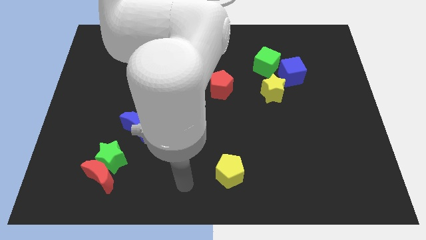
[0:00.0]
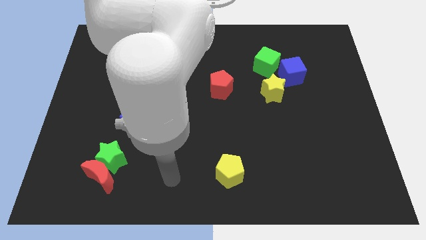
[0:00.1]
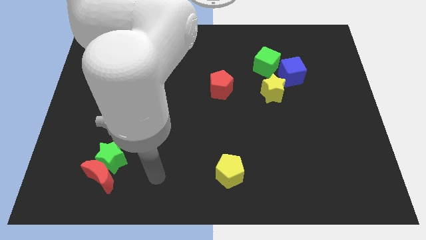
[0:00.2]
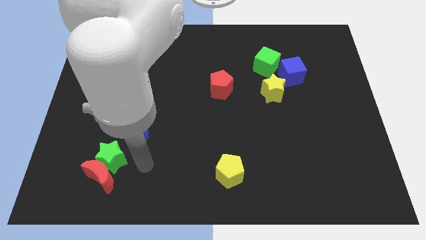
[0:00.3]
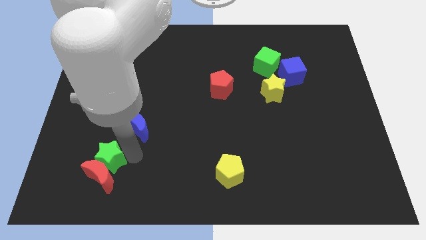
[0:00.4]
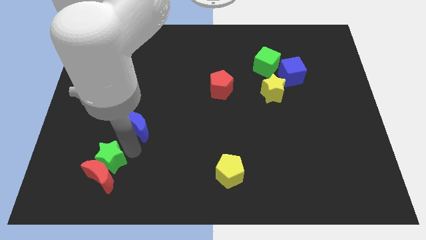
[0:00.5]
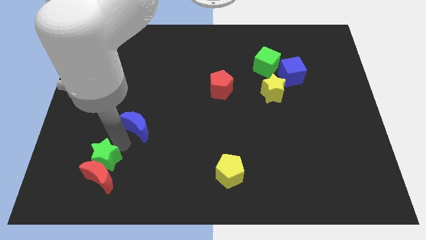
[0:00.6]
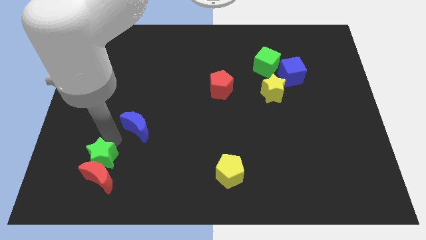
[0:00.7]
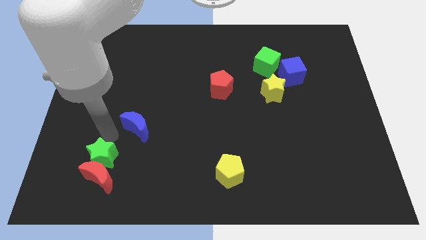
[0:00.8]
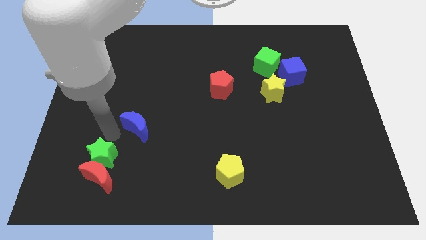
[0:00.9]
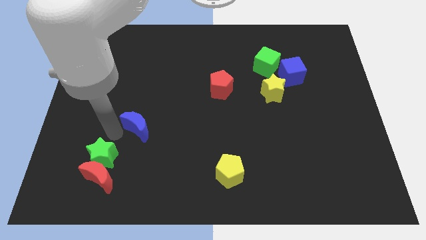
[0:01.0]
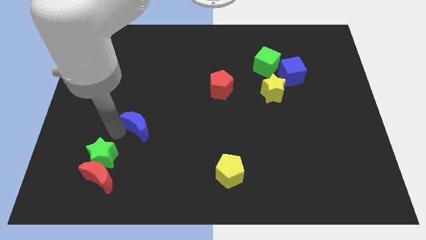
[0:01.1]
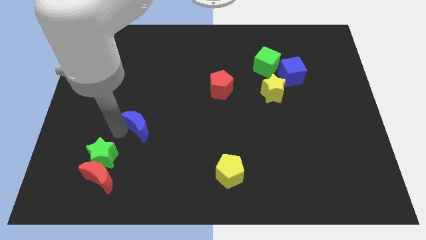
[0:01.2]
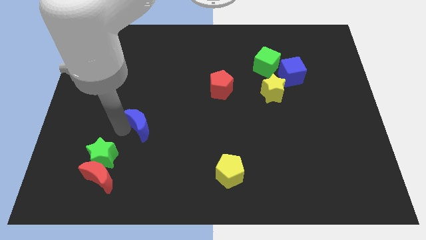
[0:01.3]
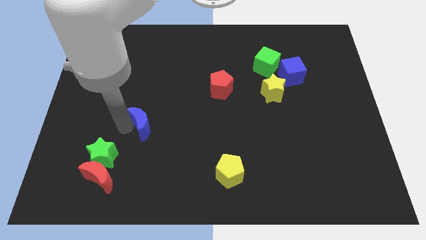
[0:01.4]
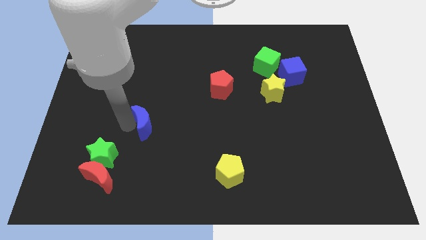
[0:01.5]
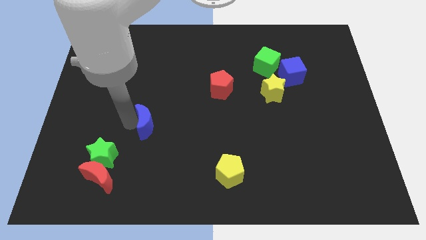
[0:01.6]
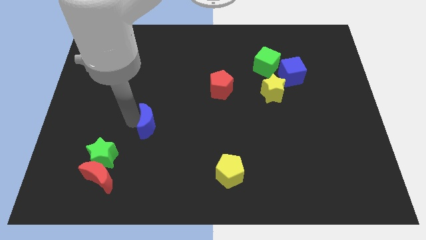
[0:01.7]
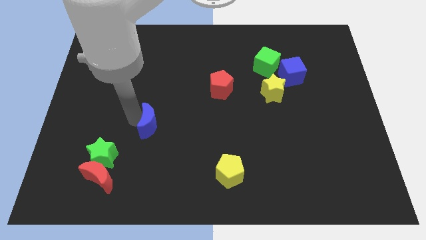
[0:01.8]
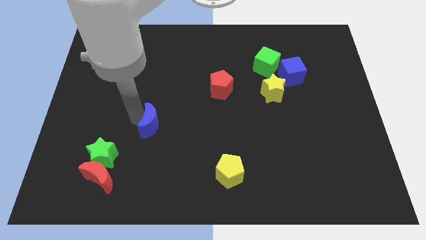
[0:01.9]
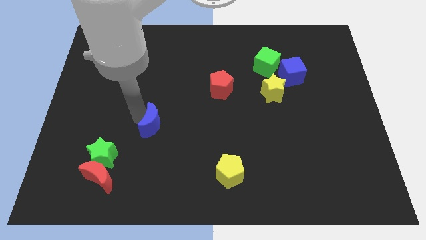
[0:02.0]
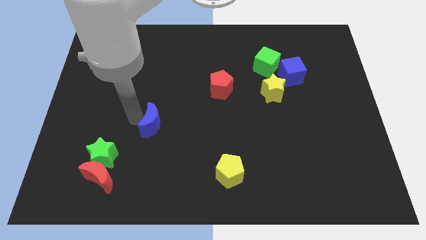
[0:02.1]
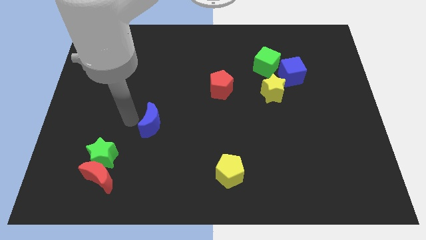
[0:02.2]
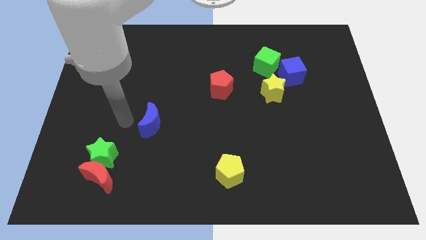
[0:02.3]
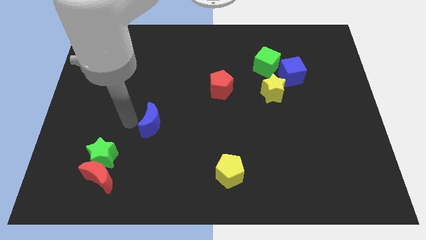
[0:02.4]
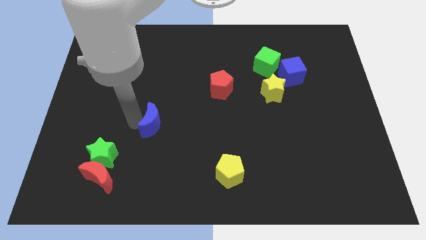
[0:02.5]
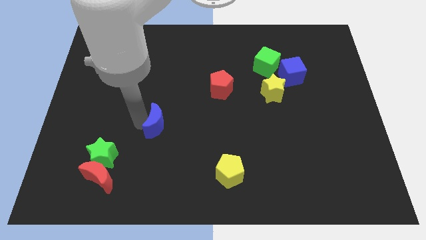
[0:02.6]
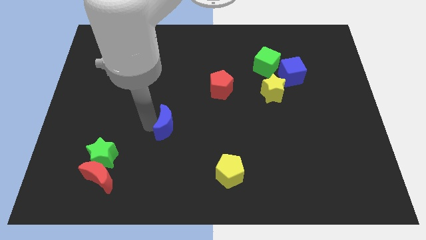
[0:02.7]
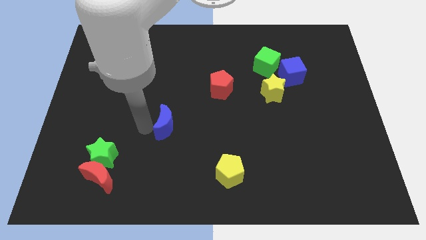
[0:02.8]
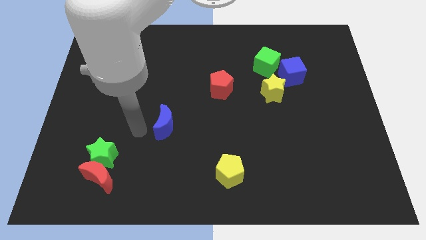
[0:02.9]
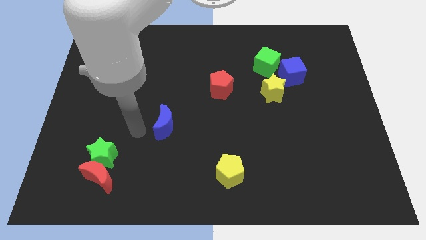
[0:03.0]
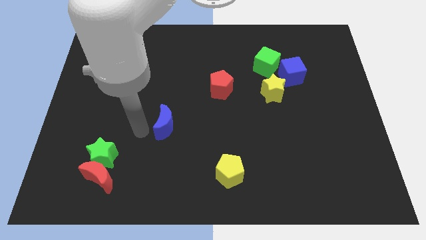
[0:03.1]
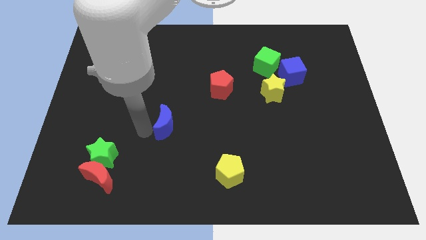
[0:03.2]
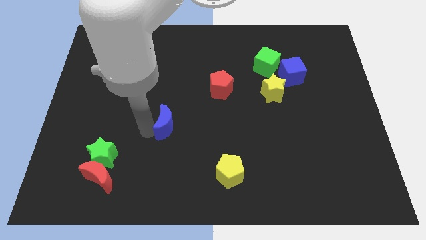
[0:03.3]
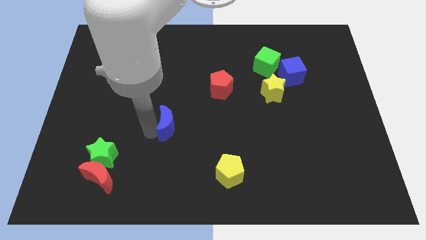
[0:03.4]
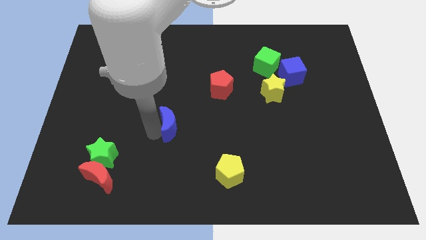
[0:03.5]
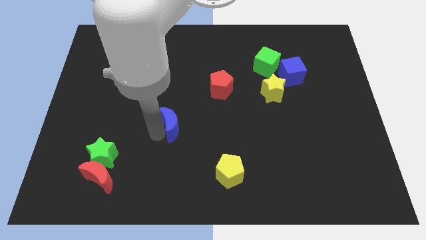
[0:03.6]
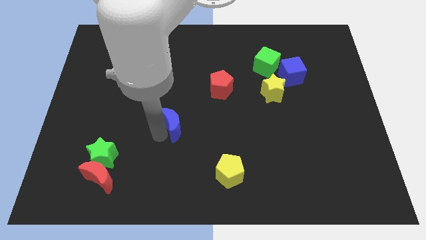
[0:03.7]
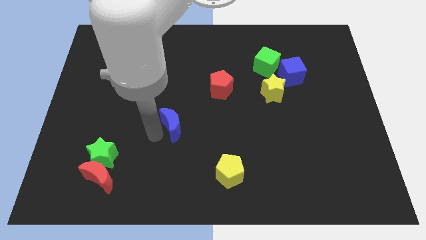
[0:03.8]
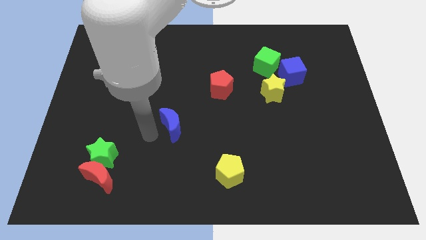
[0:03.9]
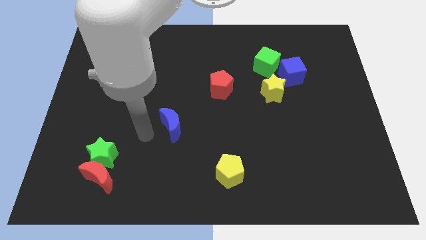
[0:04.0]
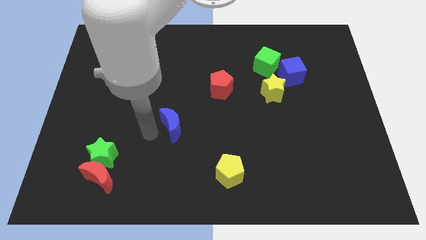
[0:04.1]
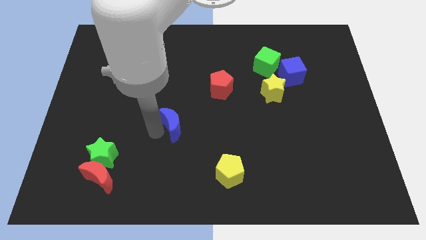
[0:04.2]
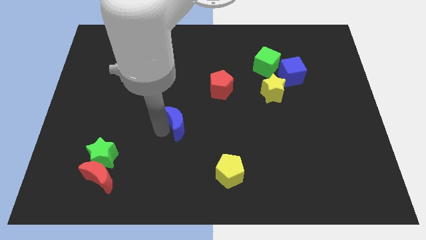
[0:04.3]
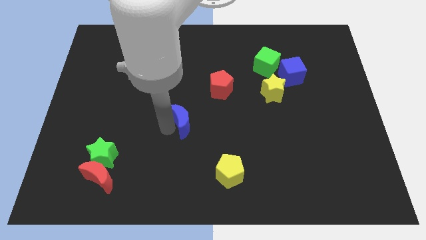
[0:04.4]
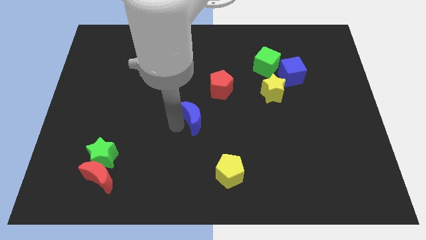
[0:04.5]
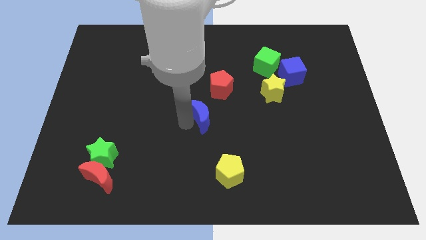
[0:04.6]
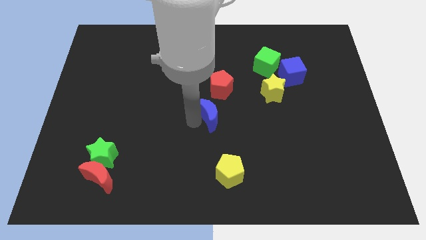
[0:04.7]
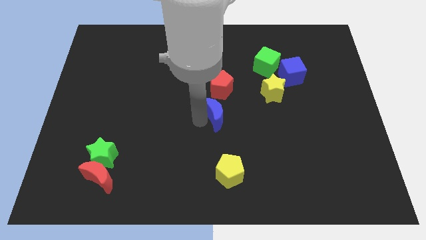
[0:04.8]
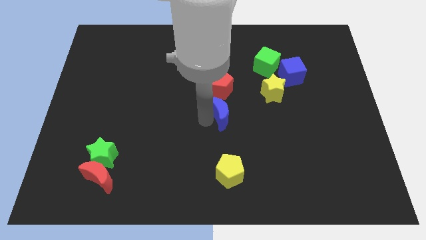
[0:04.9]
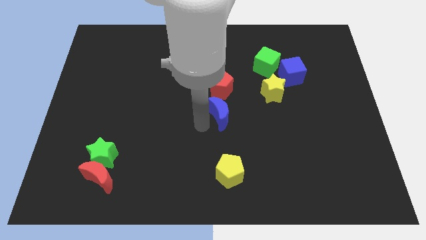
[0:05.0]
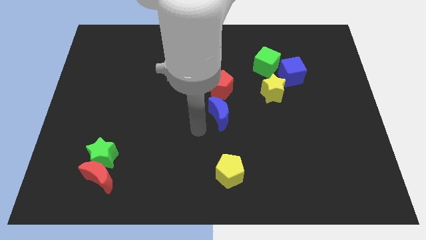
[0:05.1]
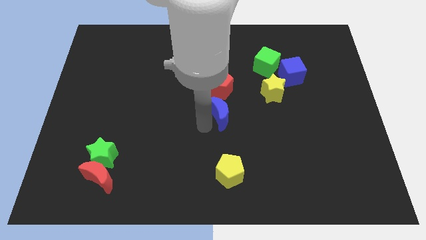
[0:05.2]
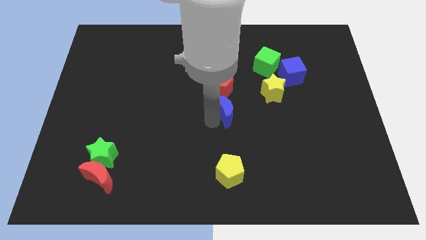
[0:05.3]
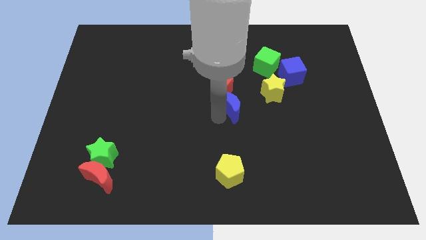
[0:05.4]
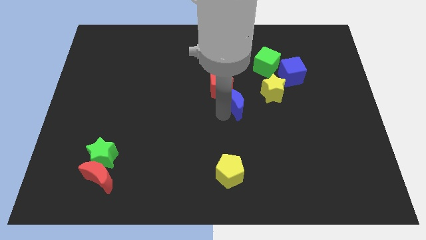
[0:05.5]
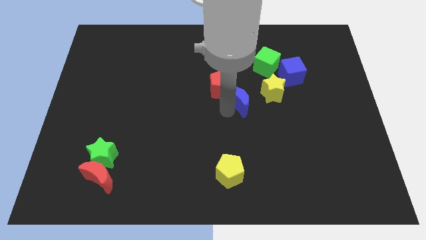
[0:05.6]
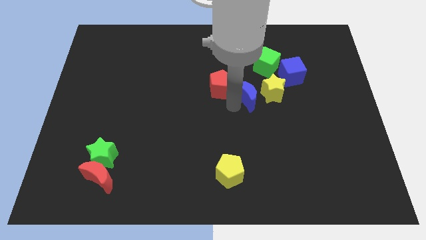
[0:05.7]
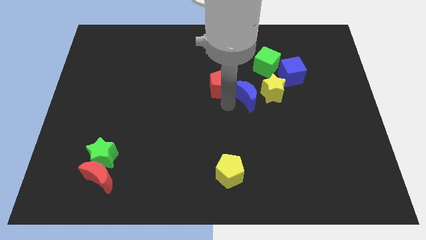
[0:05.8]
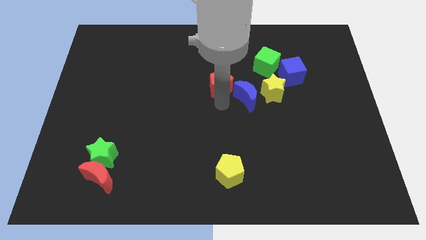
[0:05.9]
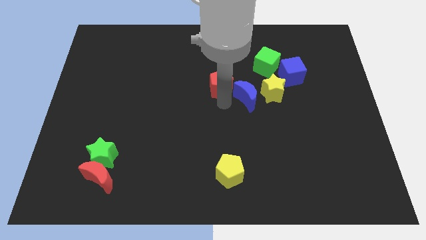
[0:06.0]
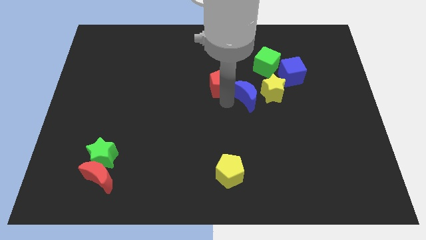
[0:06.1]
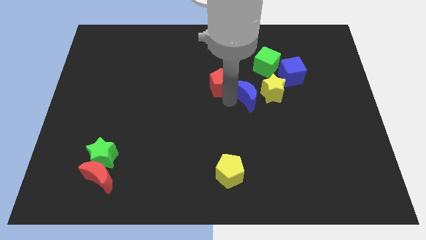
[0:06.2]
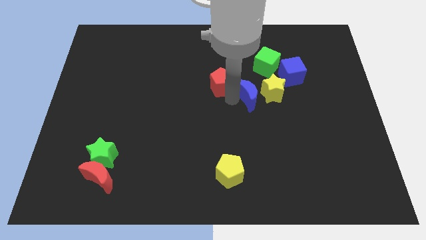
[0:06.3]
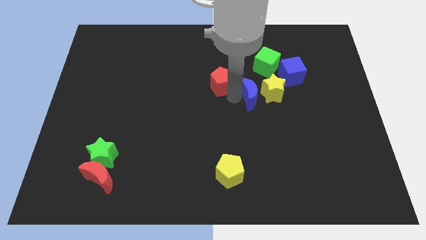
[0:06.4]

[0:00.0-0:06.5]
push the blue moon towards the yellow star

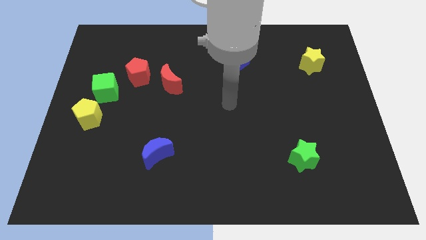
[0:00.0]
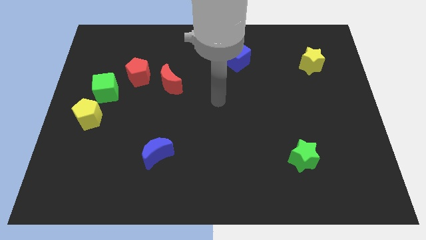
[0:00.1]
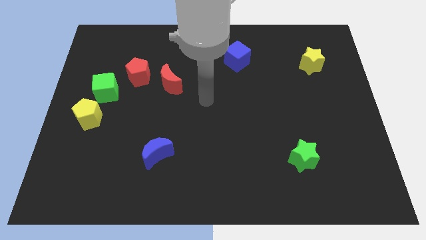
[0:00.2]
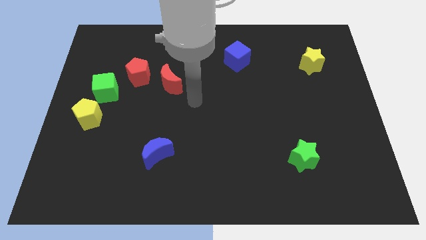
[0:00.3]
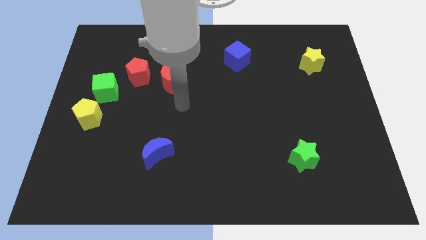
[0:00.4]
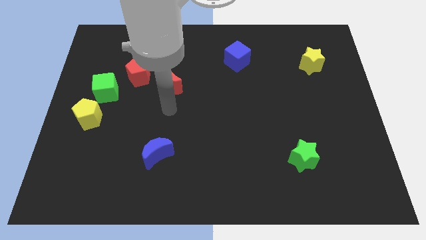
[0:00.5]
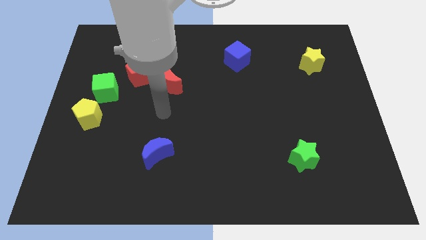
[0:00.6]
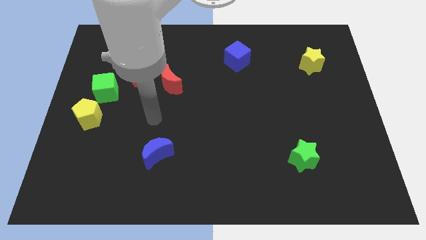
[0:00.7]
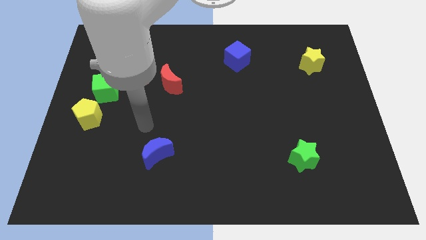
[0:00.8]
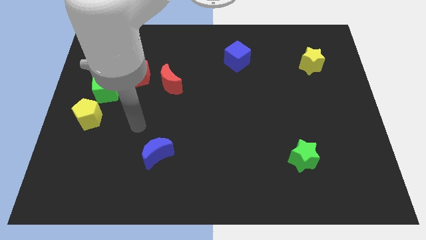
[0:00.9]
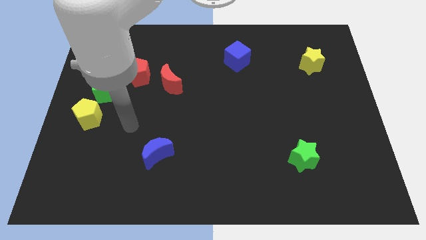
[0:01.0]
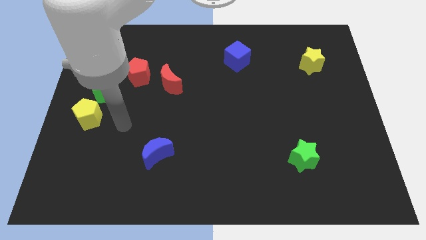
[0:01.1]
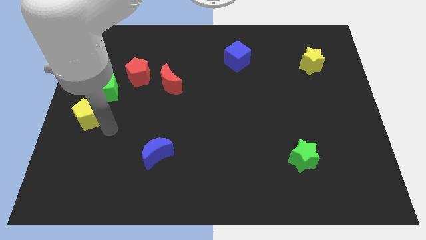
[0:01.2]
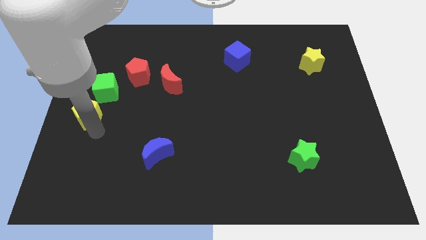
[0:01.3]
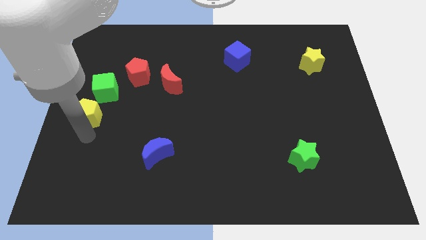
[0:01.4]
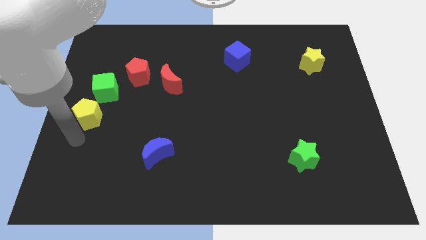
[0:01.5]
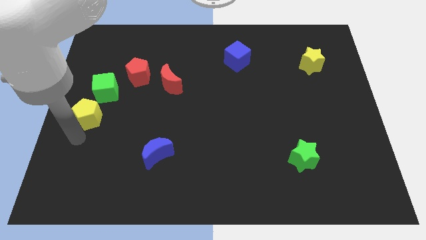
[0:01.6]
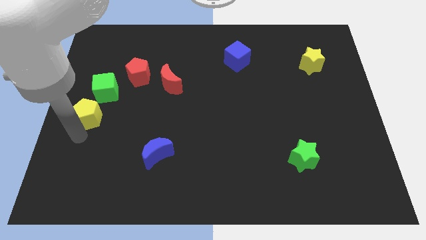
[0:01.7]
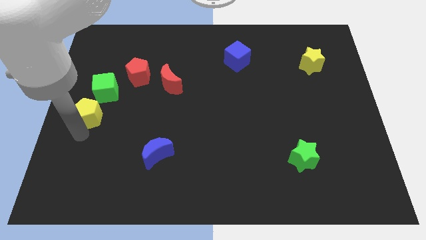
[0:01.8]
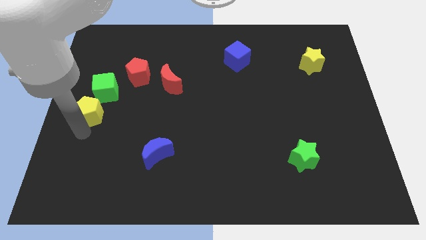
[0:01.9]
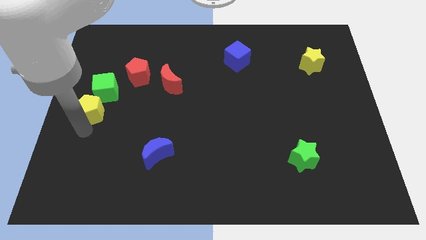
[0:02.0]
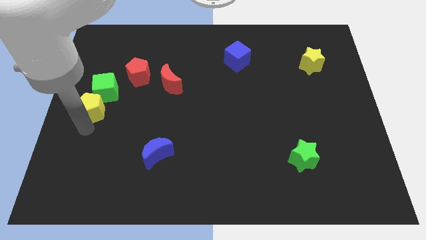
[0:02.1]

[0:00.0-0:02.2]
push the yellow pentagon towards the green cube
